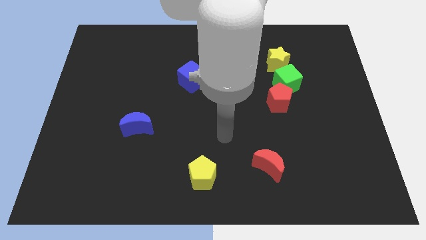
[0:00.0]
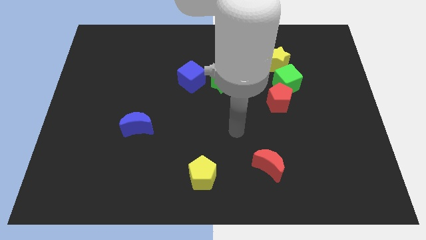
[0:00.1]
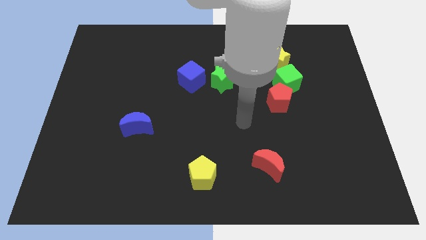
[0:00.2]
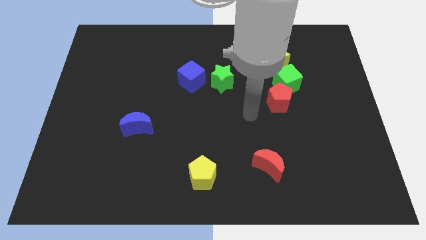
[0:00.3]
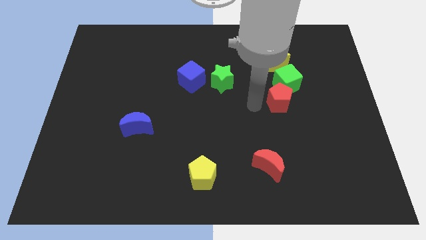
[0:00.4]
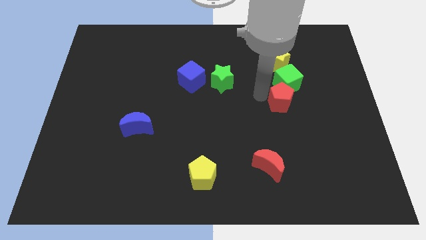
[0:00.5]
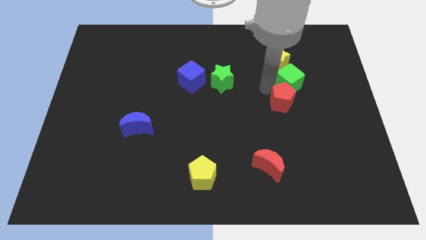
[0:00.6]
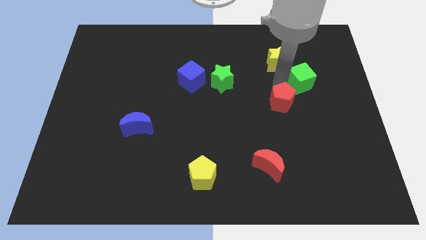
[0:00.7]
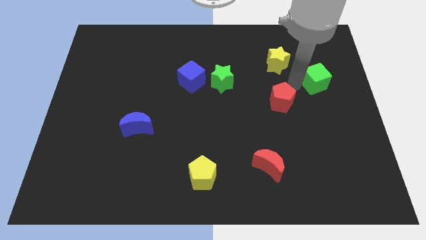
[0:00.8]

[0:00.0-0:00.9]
separate the red pentagon from the green cube

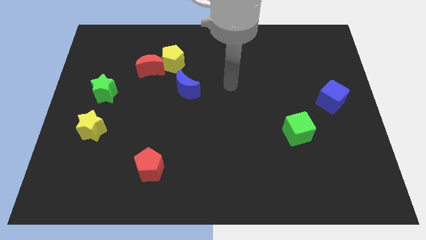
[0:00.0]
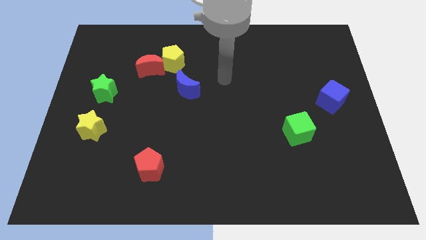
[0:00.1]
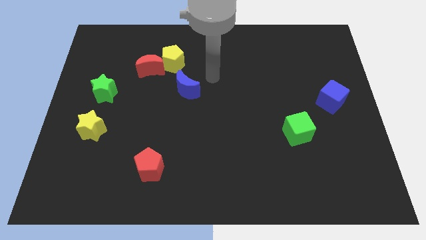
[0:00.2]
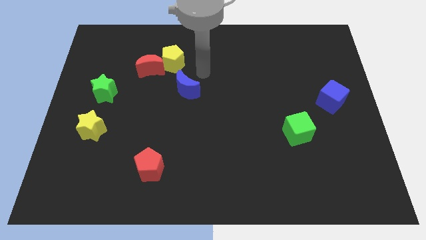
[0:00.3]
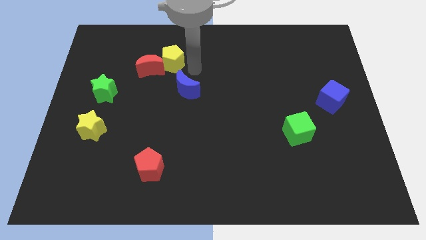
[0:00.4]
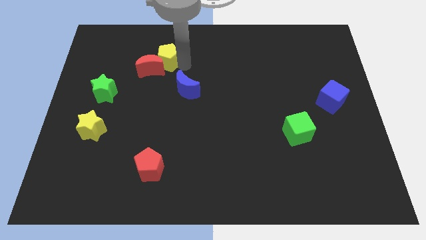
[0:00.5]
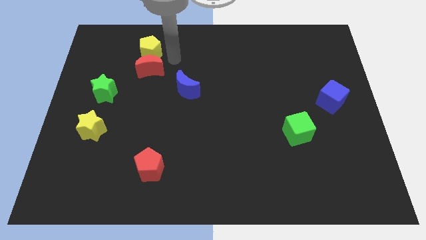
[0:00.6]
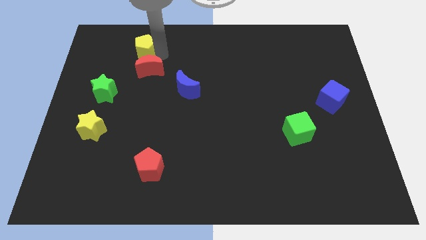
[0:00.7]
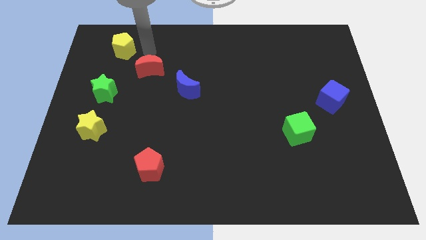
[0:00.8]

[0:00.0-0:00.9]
move the red moon away from the yellow pentagon

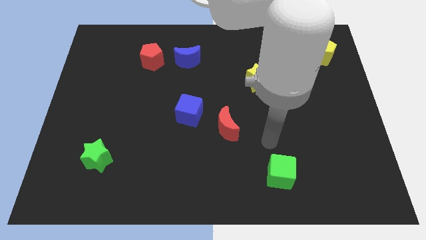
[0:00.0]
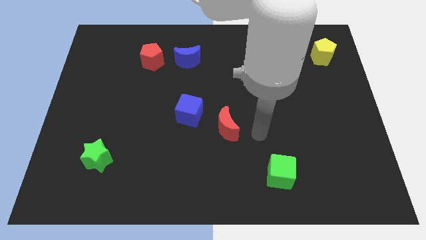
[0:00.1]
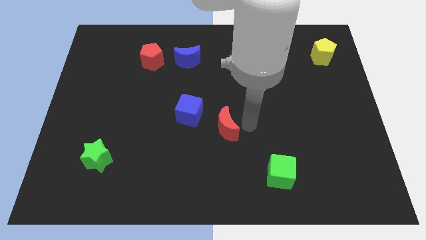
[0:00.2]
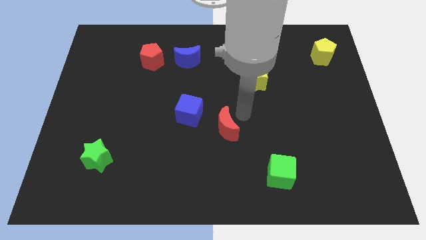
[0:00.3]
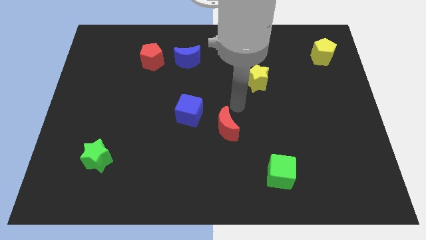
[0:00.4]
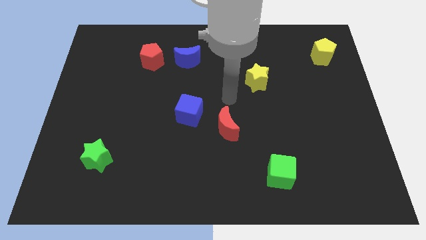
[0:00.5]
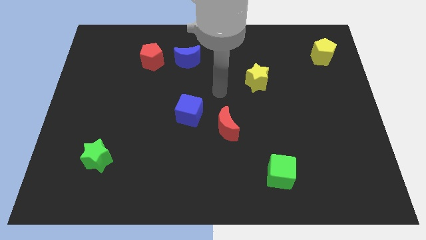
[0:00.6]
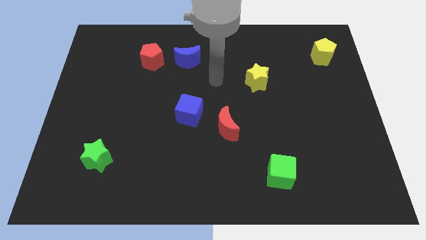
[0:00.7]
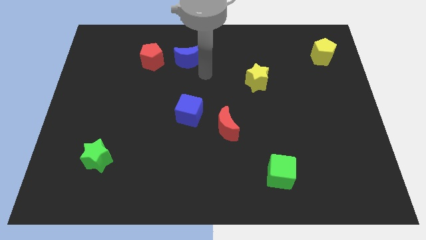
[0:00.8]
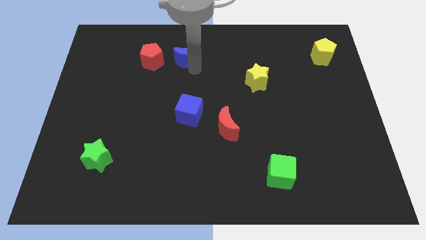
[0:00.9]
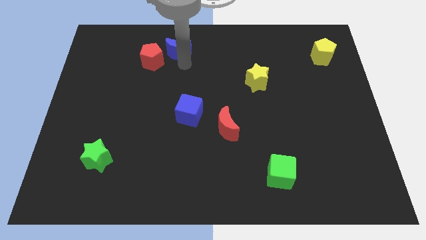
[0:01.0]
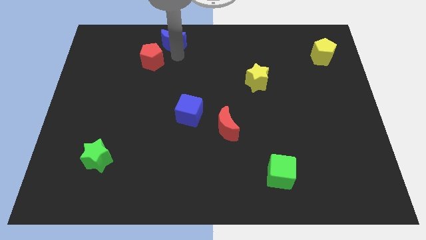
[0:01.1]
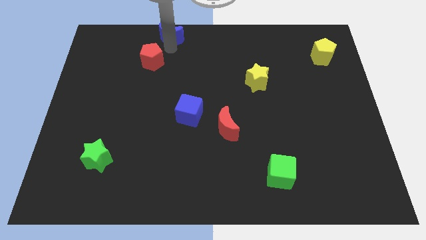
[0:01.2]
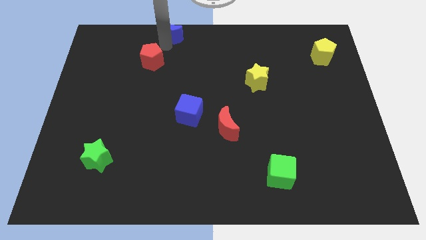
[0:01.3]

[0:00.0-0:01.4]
pull the red pentagon apart from the blue moon

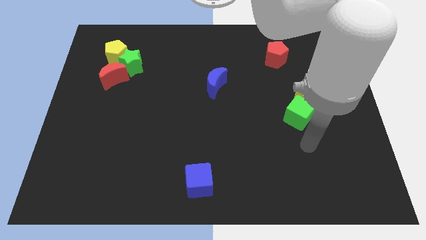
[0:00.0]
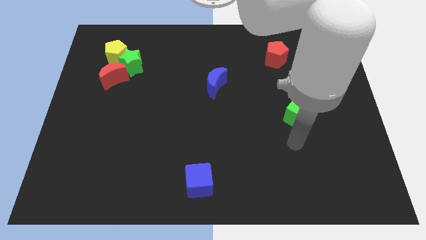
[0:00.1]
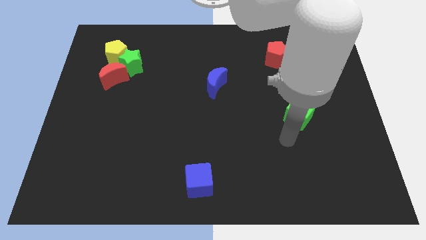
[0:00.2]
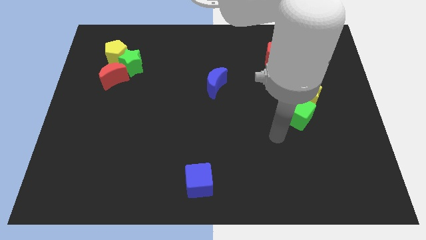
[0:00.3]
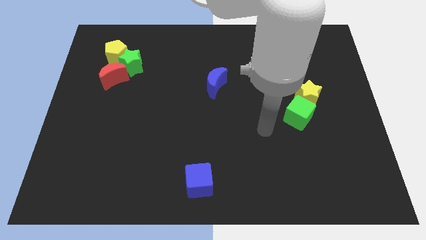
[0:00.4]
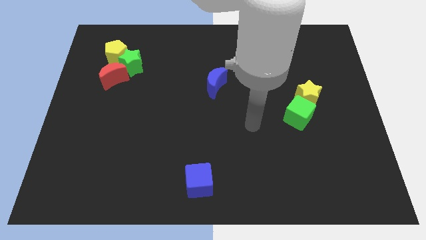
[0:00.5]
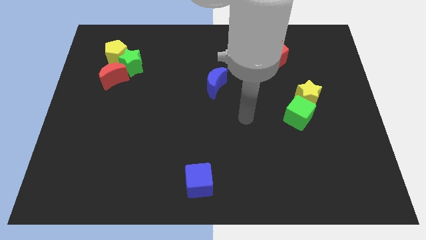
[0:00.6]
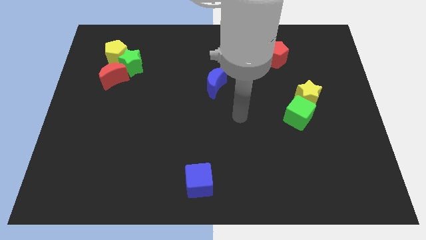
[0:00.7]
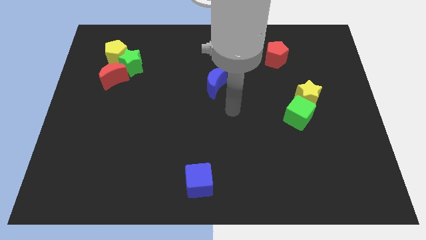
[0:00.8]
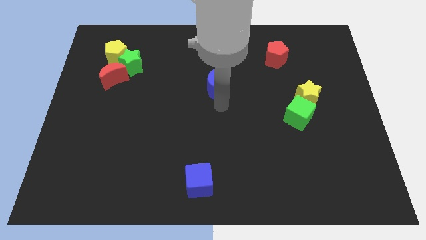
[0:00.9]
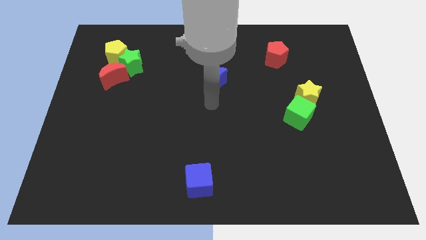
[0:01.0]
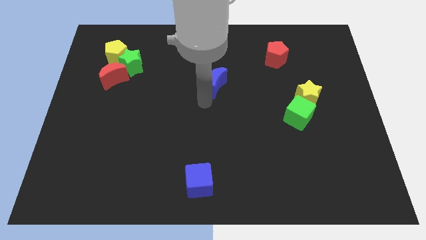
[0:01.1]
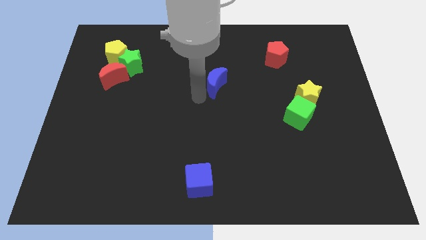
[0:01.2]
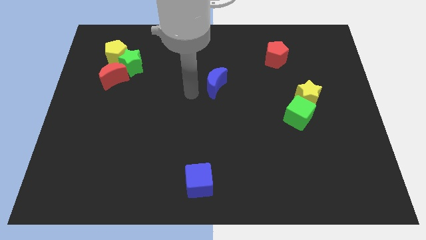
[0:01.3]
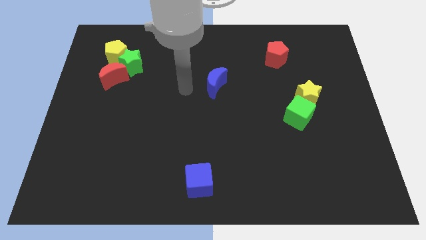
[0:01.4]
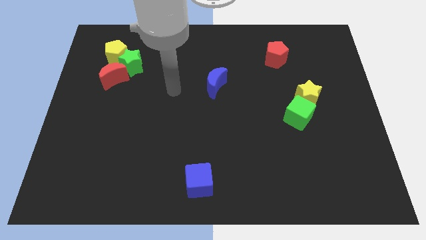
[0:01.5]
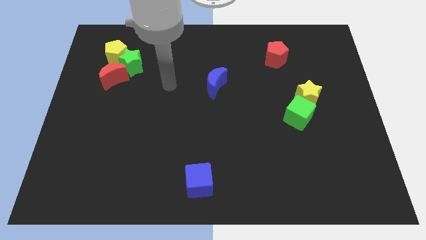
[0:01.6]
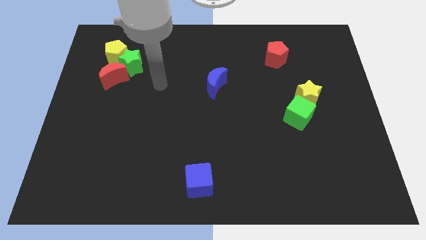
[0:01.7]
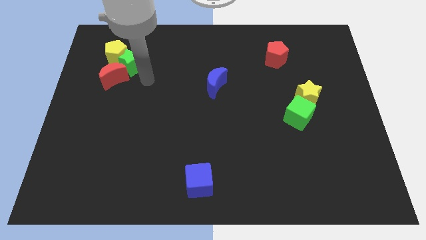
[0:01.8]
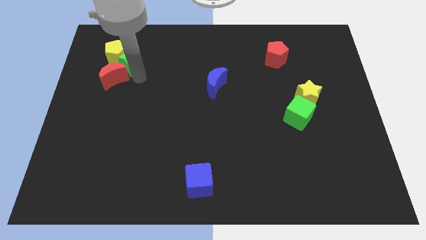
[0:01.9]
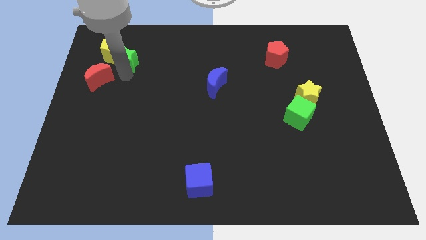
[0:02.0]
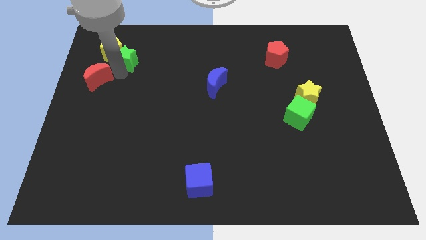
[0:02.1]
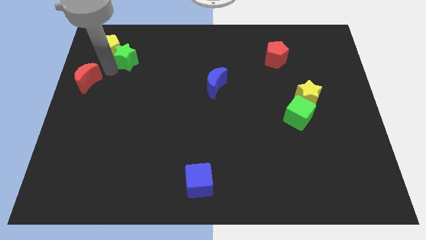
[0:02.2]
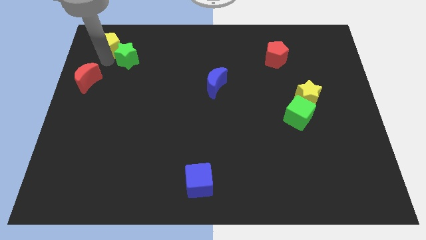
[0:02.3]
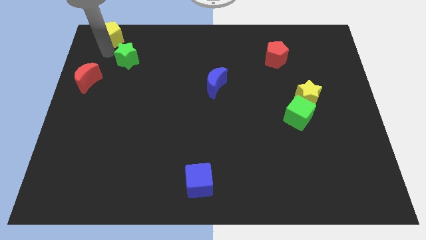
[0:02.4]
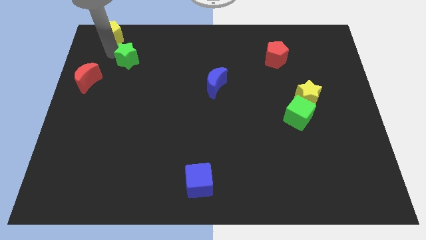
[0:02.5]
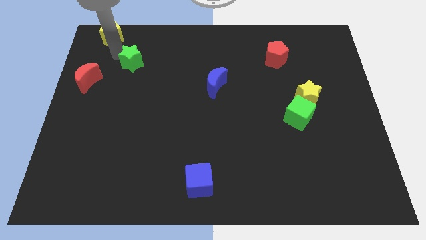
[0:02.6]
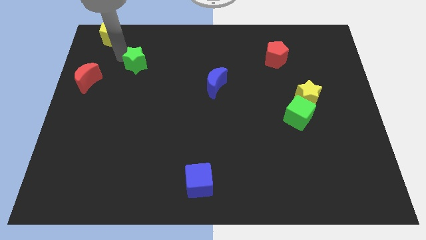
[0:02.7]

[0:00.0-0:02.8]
move the green star away from the yellow pentagon and red moon

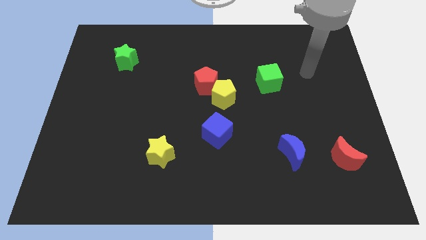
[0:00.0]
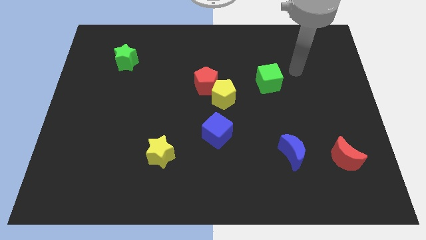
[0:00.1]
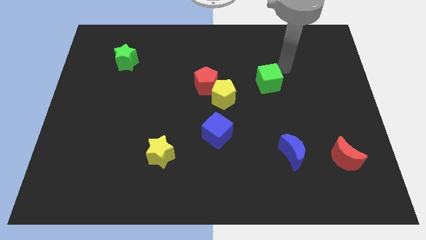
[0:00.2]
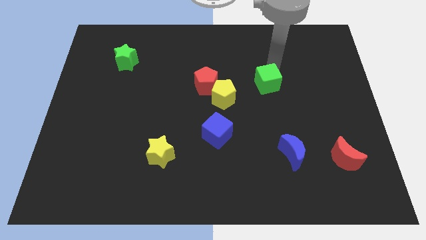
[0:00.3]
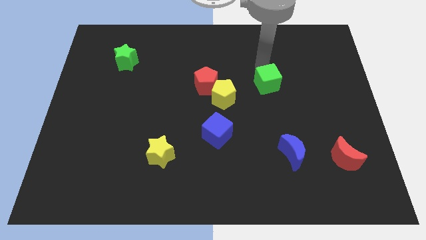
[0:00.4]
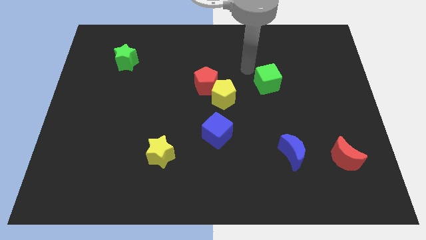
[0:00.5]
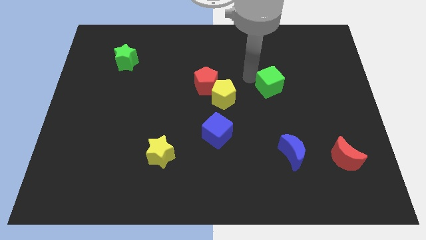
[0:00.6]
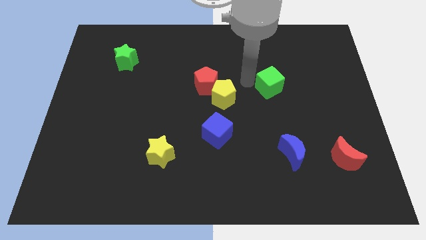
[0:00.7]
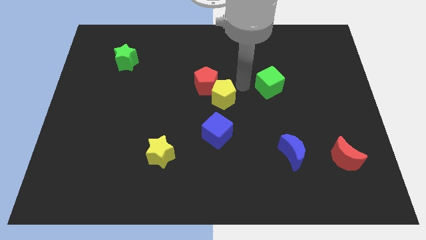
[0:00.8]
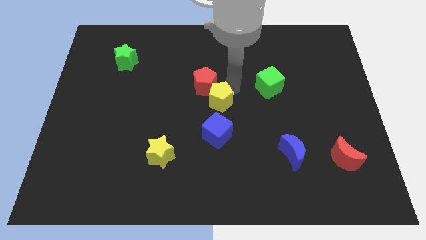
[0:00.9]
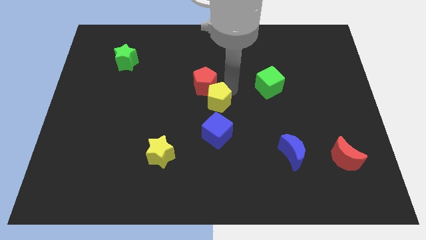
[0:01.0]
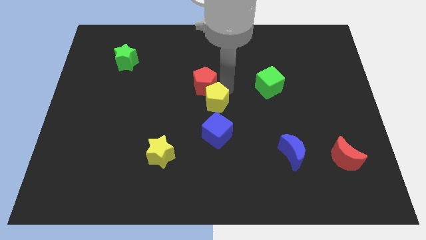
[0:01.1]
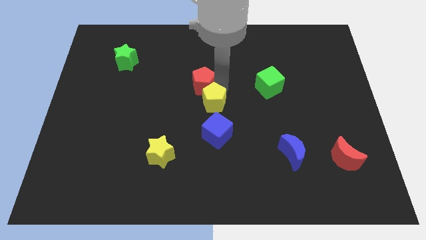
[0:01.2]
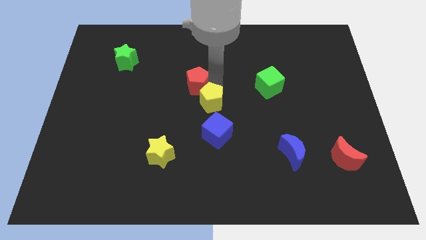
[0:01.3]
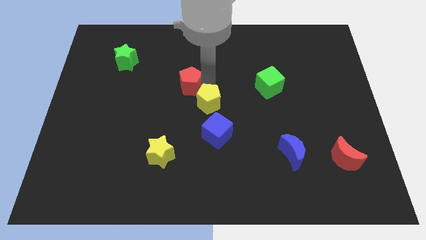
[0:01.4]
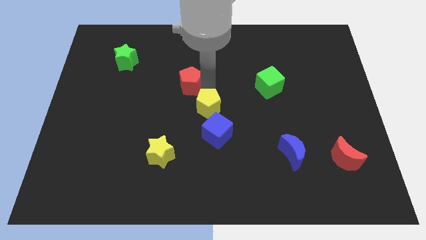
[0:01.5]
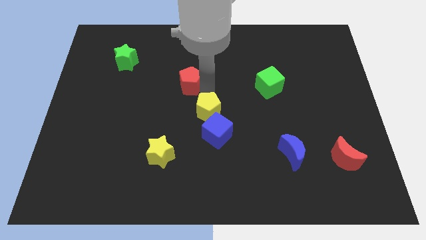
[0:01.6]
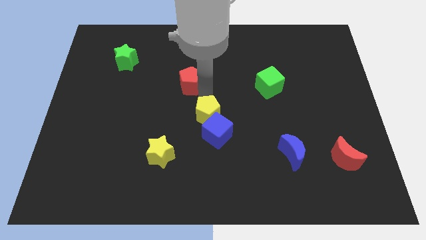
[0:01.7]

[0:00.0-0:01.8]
move the red pentagon away from the yellow pentagon

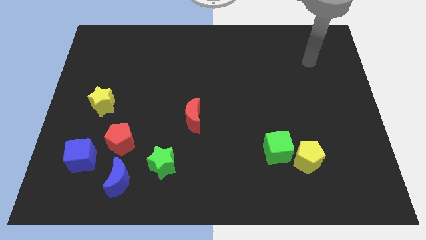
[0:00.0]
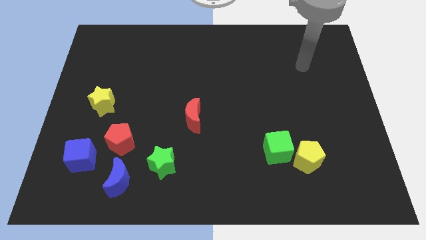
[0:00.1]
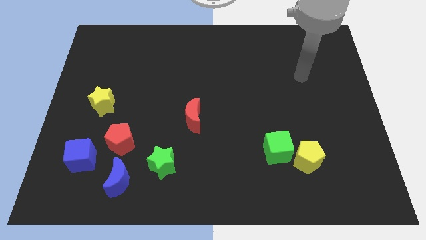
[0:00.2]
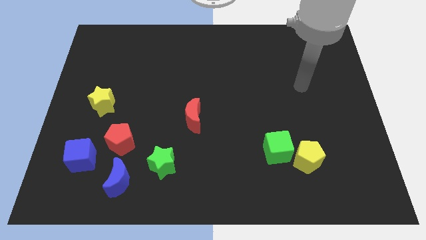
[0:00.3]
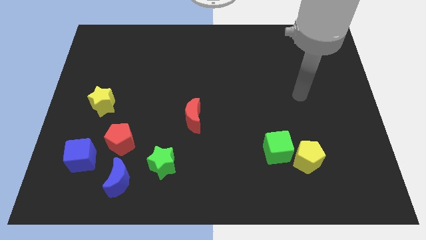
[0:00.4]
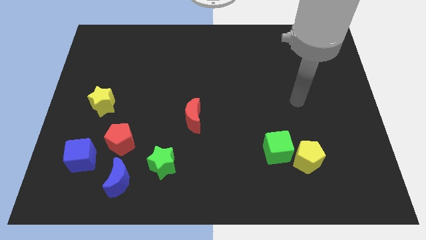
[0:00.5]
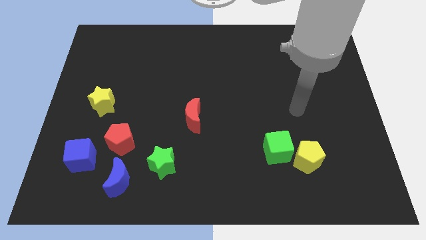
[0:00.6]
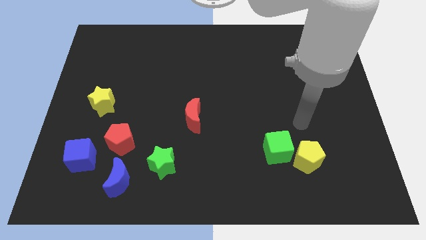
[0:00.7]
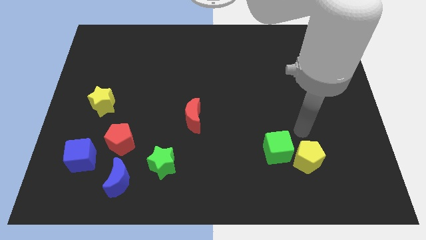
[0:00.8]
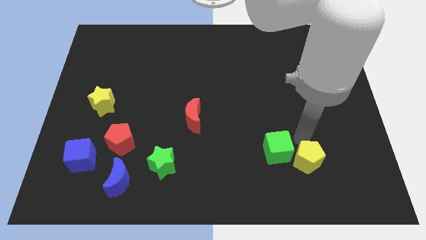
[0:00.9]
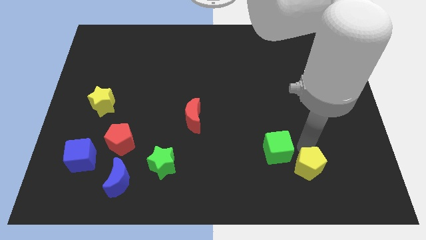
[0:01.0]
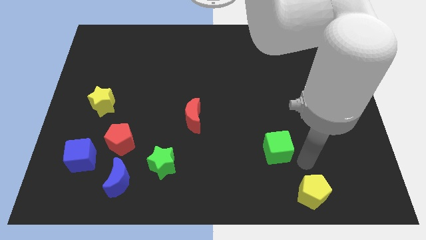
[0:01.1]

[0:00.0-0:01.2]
separate the green cube from the yellow pentagon

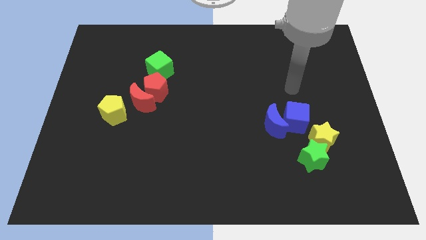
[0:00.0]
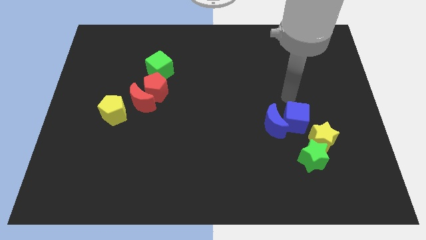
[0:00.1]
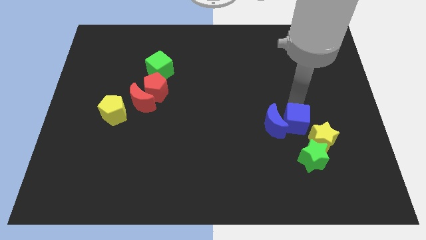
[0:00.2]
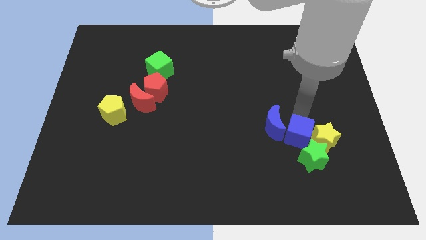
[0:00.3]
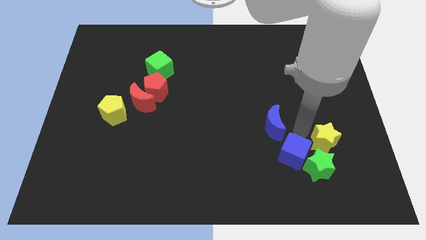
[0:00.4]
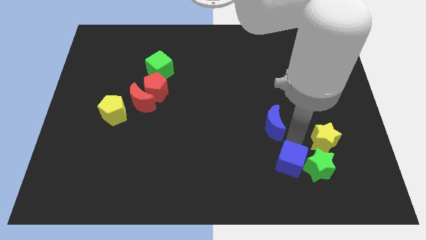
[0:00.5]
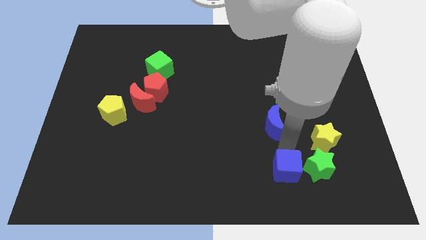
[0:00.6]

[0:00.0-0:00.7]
separate the blue moon from the blue cube
